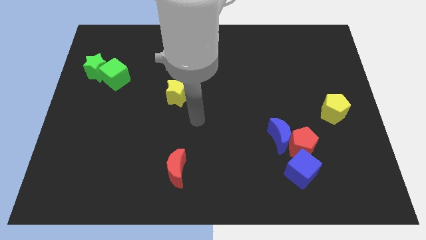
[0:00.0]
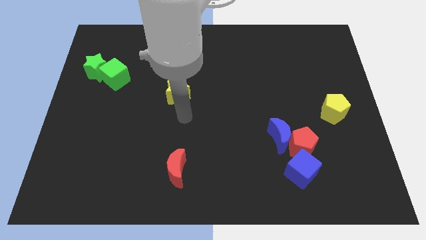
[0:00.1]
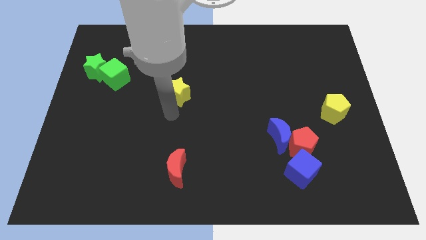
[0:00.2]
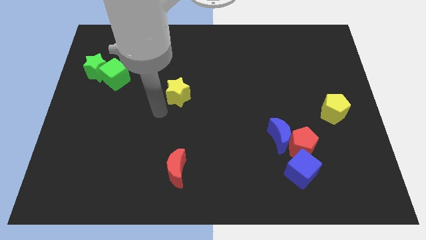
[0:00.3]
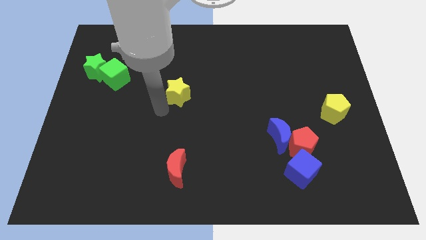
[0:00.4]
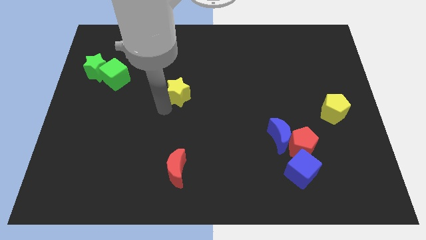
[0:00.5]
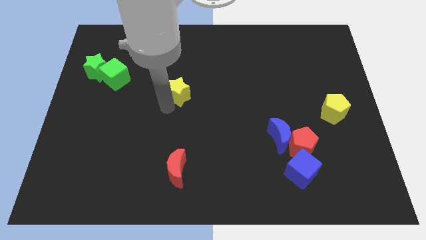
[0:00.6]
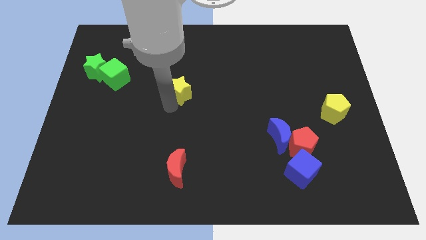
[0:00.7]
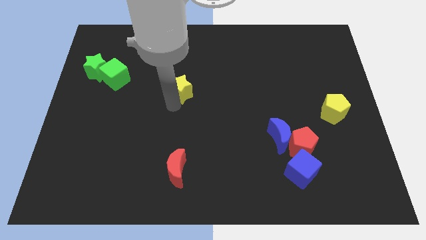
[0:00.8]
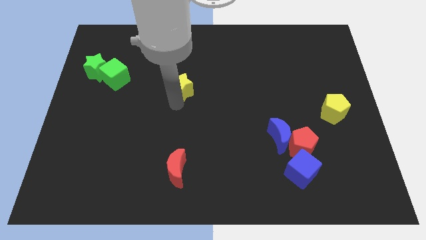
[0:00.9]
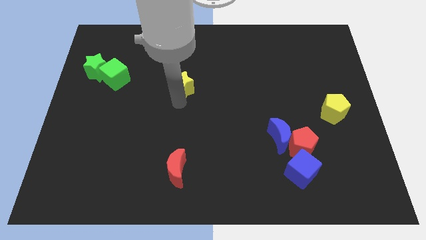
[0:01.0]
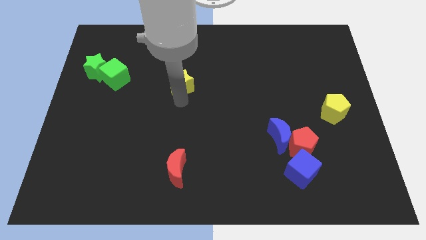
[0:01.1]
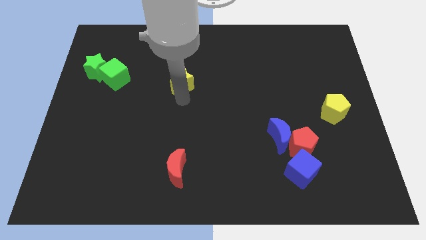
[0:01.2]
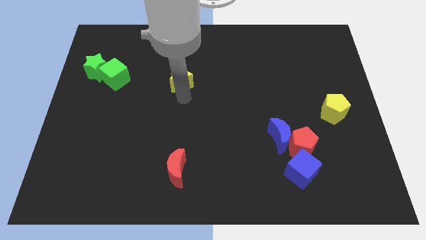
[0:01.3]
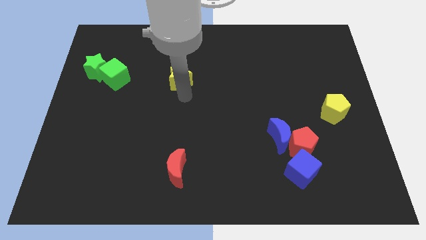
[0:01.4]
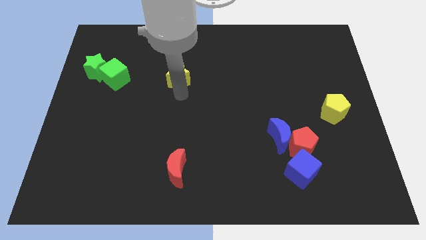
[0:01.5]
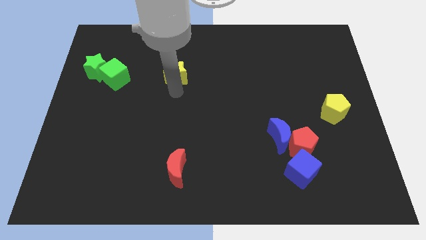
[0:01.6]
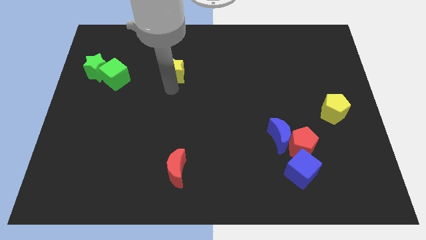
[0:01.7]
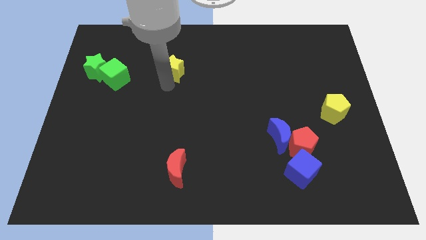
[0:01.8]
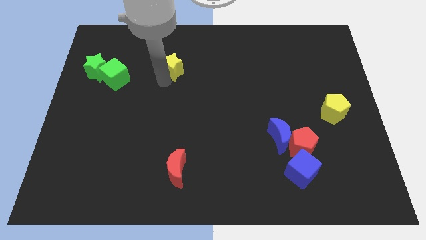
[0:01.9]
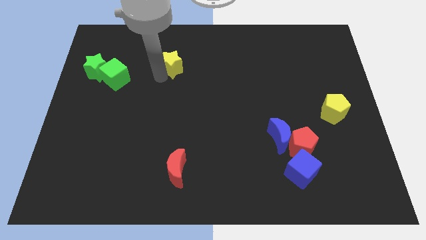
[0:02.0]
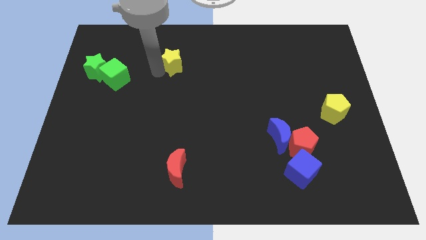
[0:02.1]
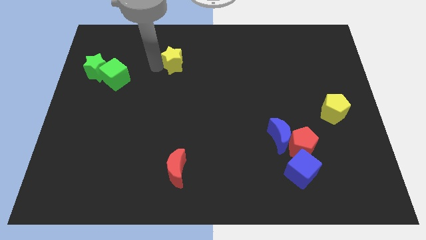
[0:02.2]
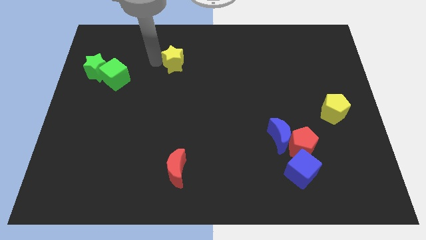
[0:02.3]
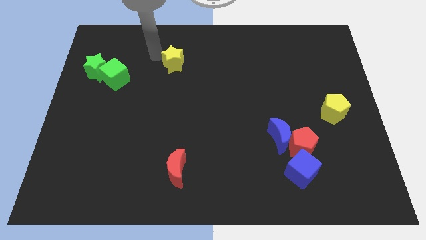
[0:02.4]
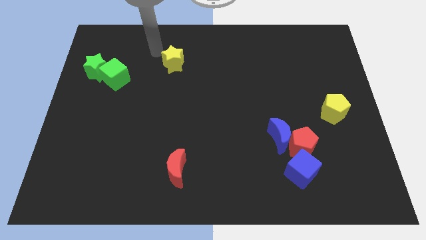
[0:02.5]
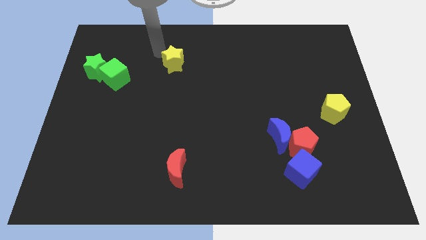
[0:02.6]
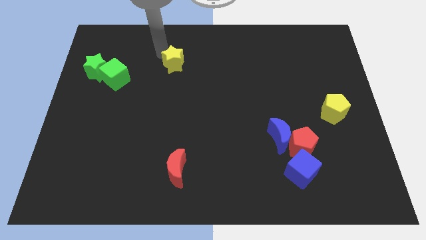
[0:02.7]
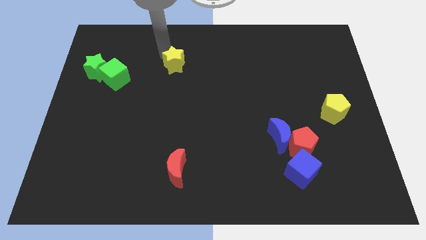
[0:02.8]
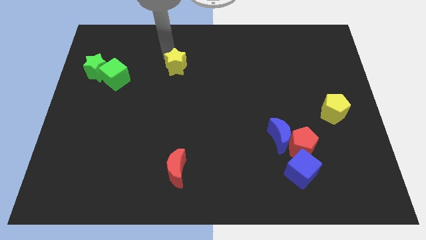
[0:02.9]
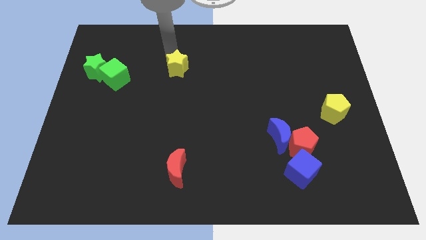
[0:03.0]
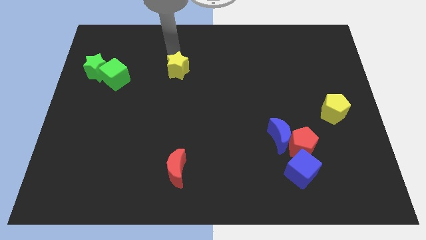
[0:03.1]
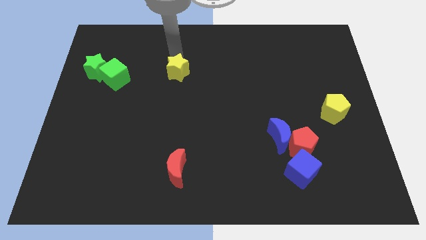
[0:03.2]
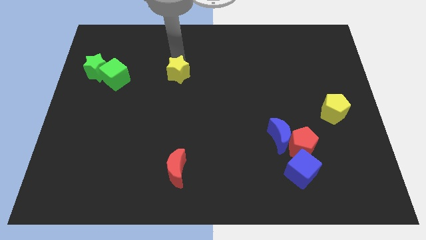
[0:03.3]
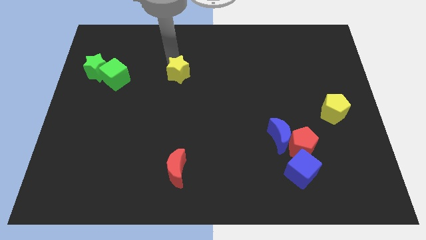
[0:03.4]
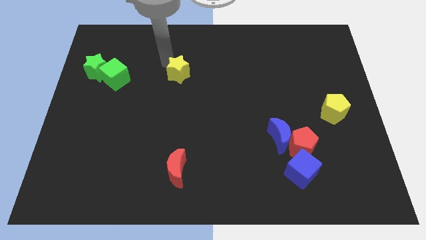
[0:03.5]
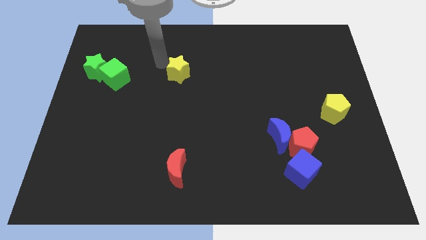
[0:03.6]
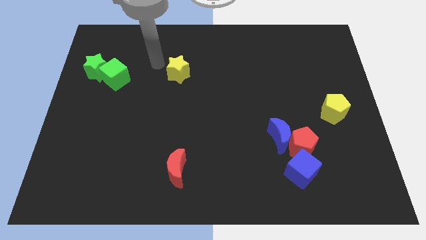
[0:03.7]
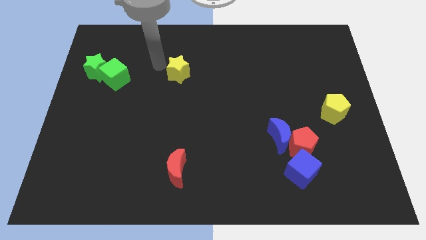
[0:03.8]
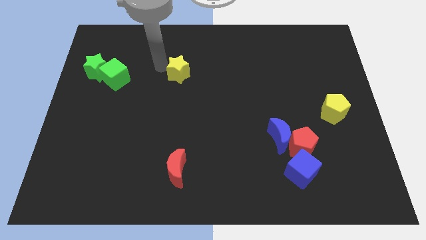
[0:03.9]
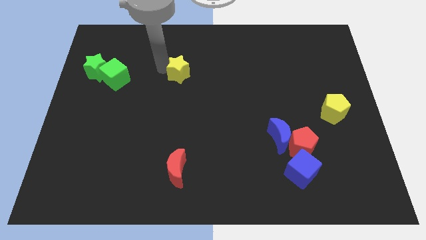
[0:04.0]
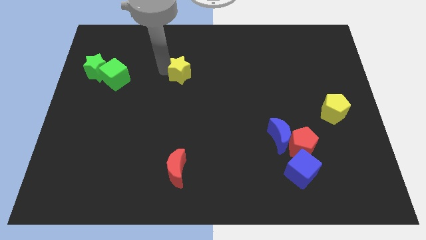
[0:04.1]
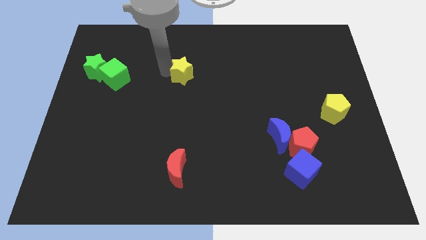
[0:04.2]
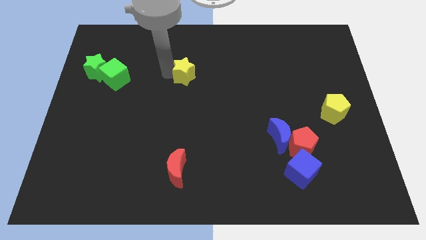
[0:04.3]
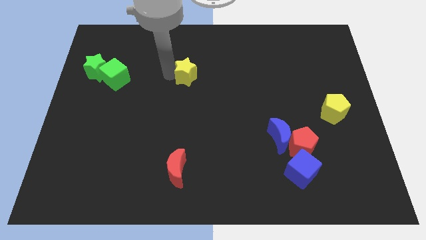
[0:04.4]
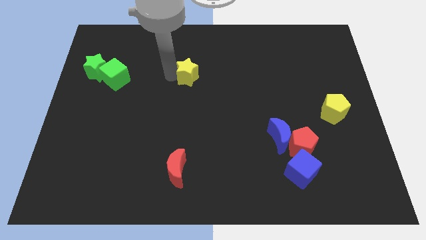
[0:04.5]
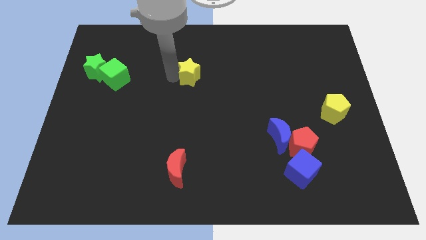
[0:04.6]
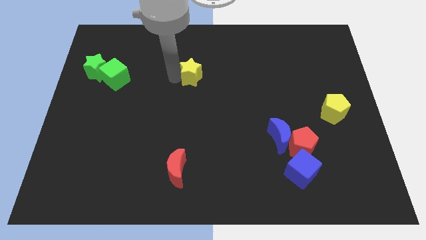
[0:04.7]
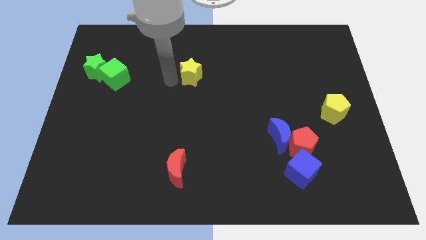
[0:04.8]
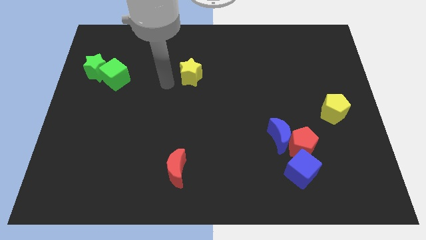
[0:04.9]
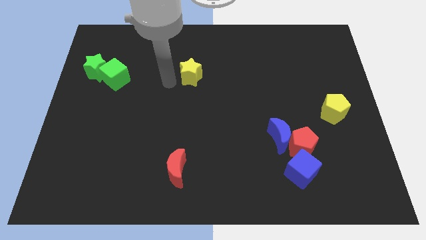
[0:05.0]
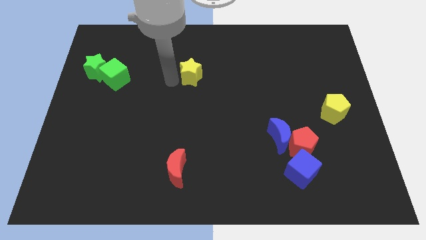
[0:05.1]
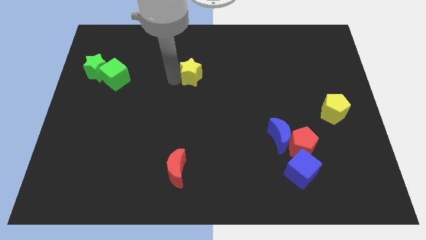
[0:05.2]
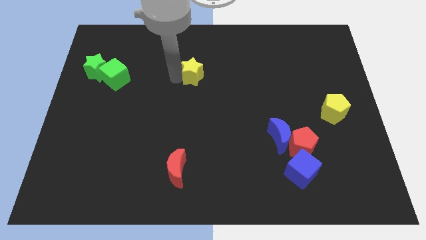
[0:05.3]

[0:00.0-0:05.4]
slightly push the yellow star upwards and to the right

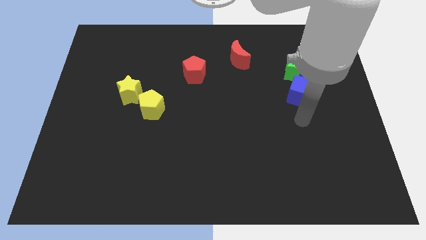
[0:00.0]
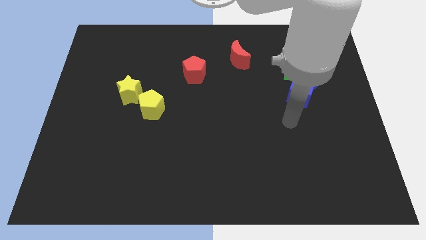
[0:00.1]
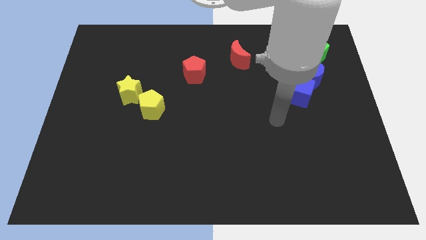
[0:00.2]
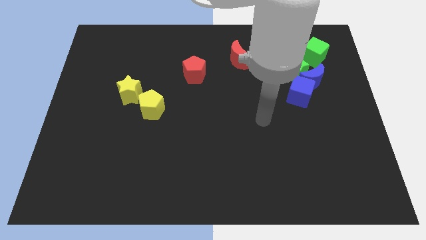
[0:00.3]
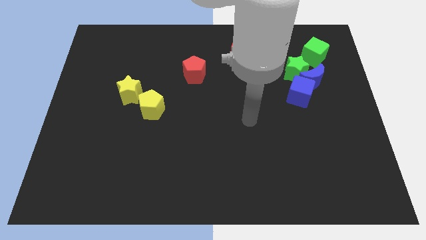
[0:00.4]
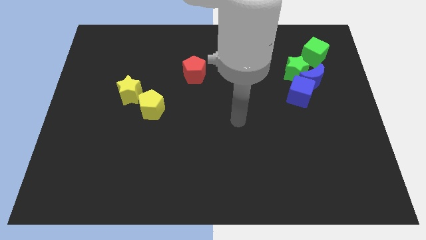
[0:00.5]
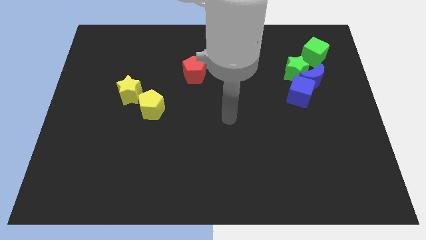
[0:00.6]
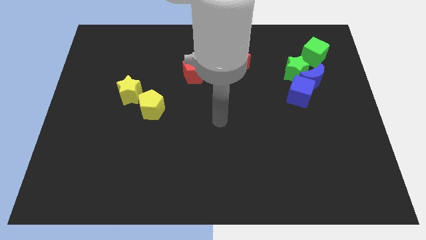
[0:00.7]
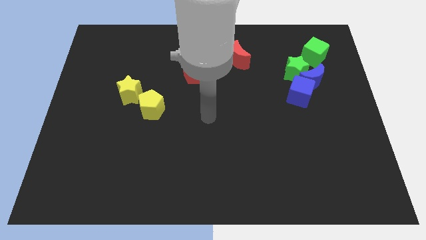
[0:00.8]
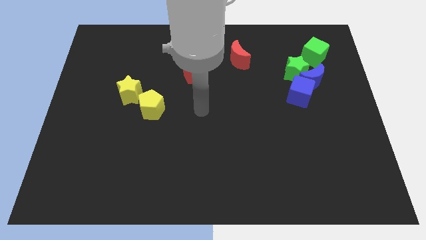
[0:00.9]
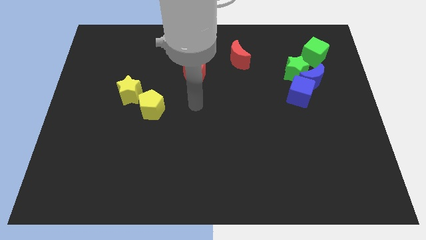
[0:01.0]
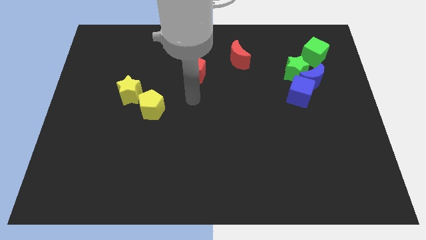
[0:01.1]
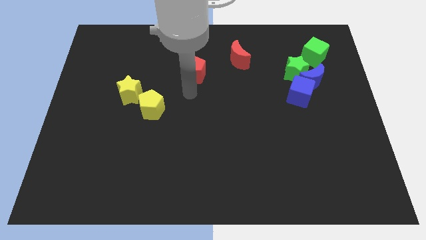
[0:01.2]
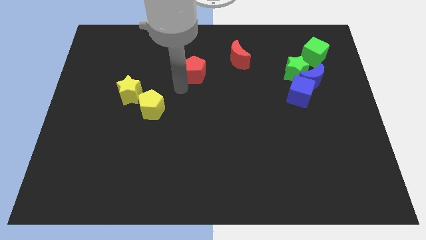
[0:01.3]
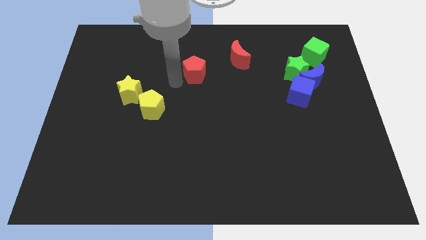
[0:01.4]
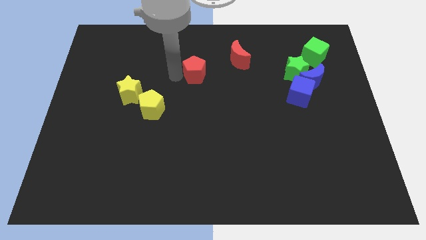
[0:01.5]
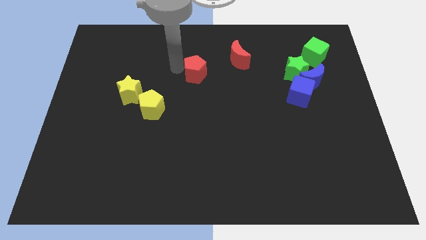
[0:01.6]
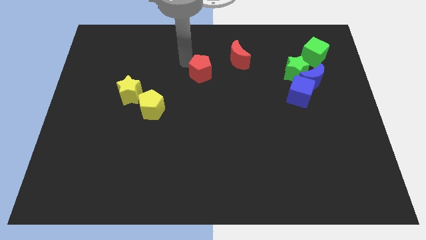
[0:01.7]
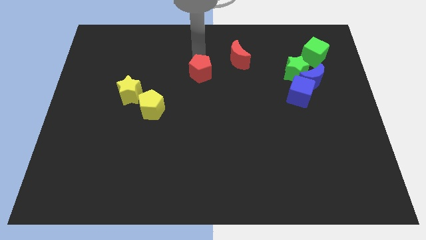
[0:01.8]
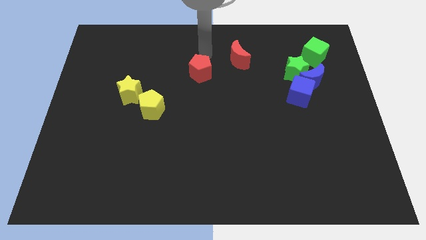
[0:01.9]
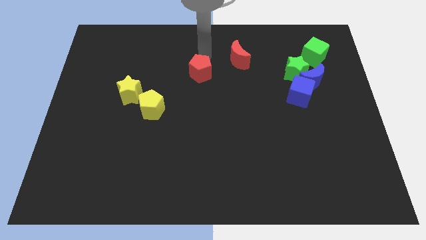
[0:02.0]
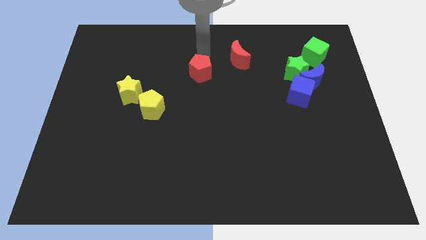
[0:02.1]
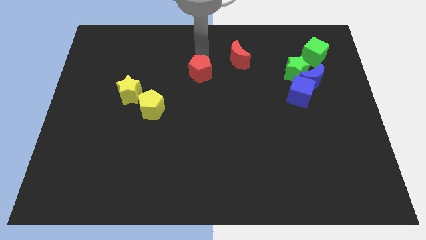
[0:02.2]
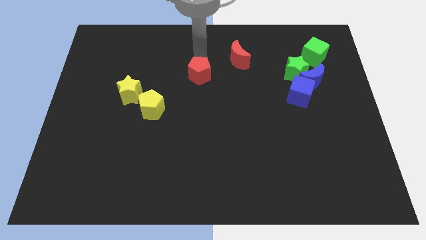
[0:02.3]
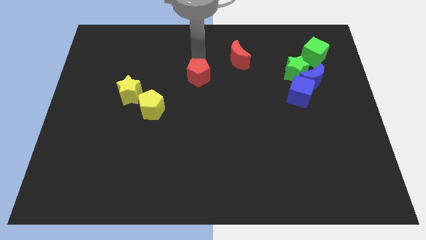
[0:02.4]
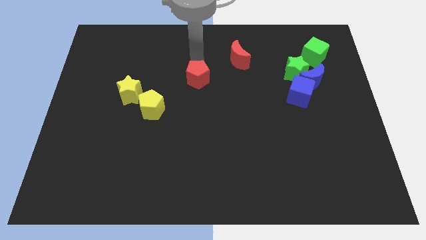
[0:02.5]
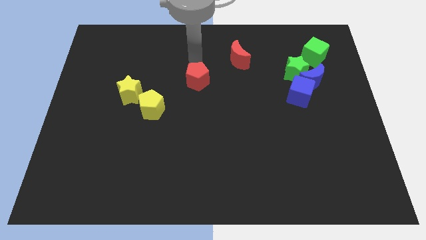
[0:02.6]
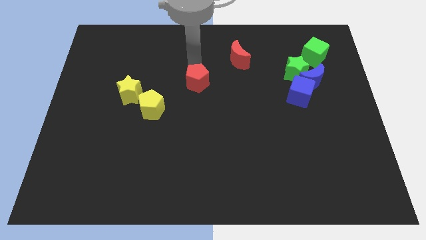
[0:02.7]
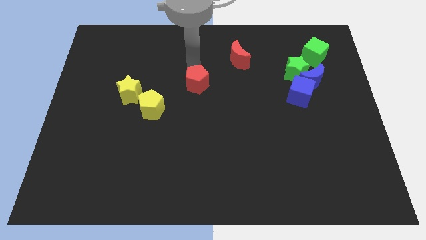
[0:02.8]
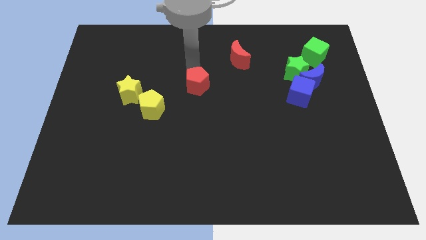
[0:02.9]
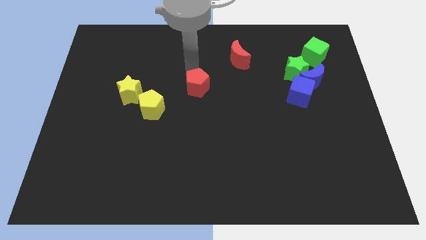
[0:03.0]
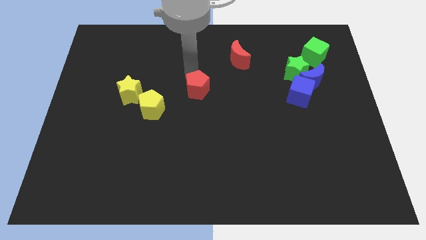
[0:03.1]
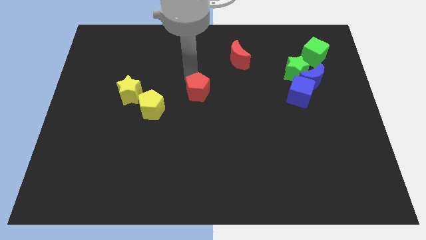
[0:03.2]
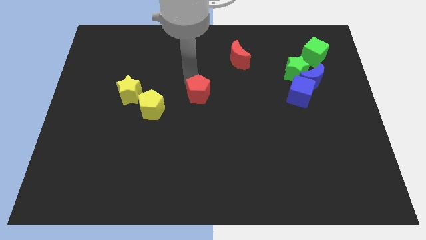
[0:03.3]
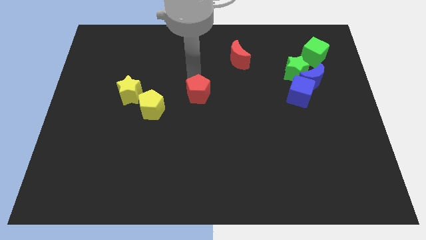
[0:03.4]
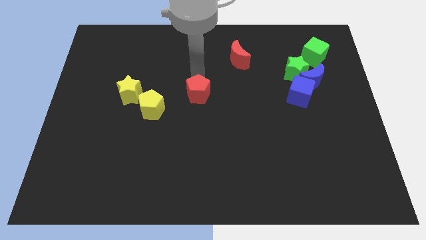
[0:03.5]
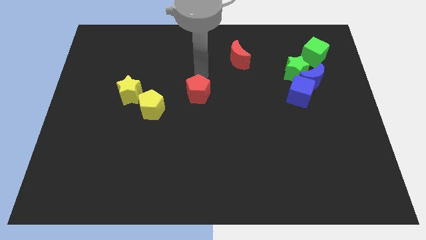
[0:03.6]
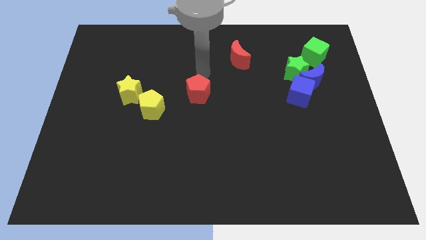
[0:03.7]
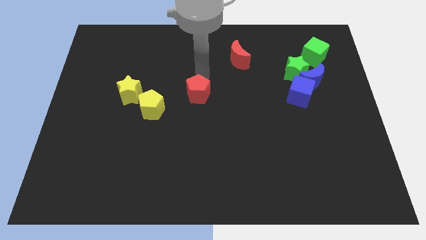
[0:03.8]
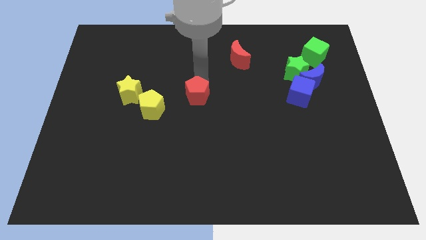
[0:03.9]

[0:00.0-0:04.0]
push the red pentagon down somewhat
